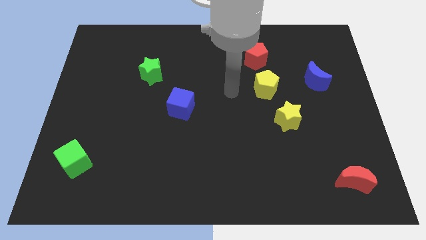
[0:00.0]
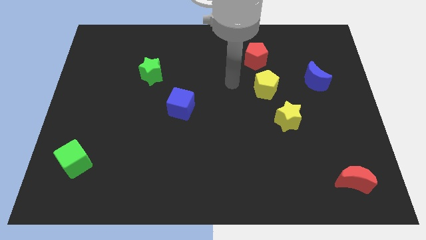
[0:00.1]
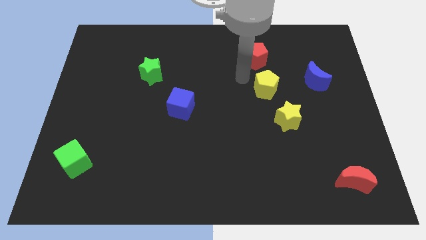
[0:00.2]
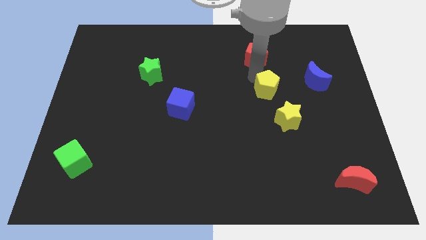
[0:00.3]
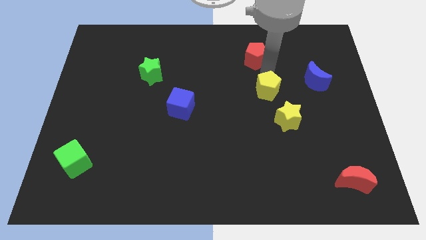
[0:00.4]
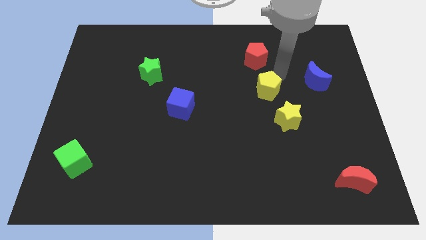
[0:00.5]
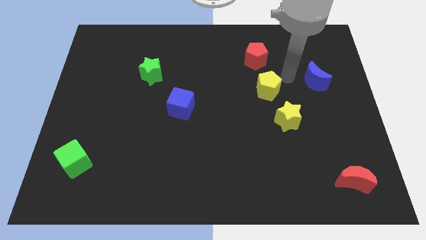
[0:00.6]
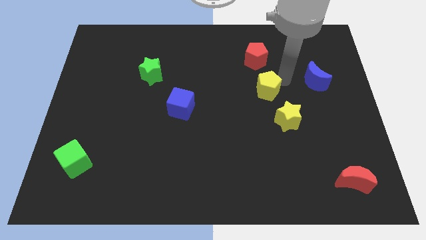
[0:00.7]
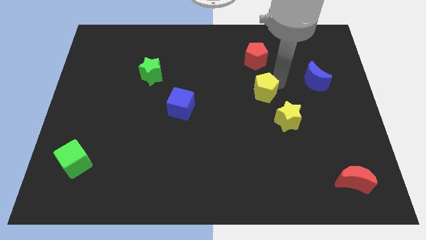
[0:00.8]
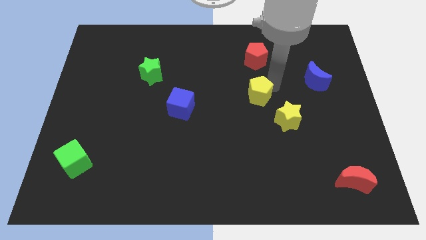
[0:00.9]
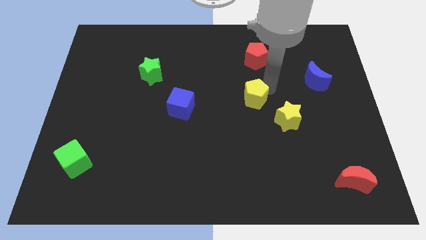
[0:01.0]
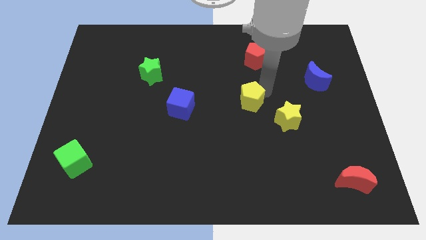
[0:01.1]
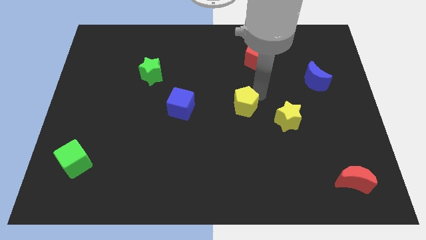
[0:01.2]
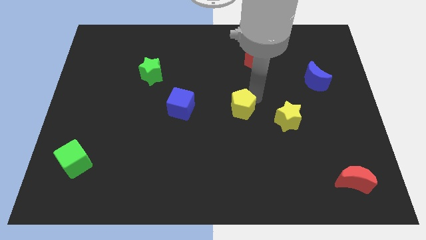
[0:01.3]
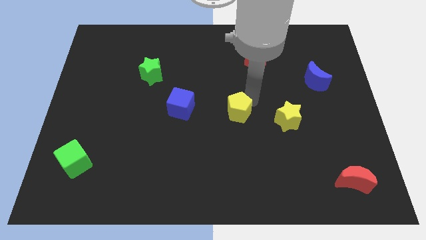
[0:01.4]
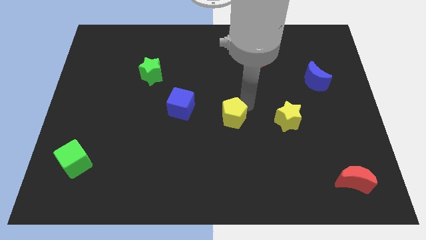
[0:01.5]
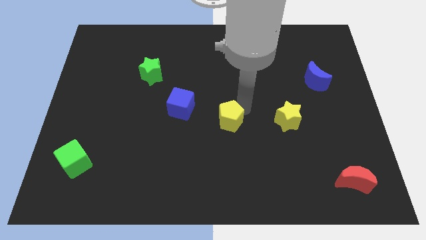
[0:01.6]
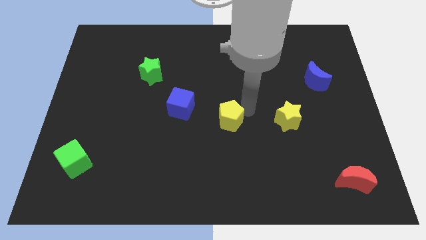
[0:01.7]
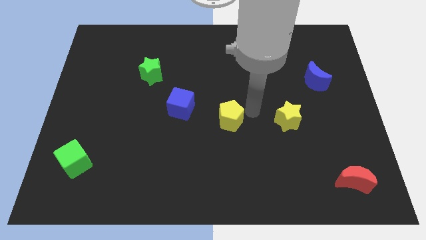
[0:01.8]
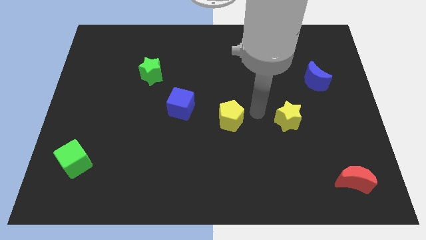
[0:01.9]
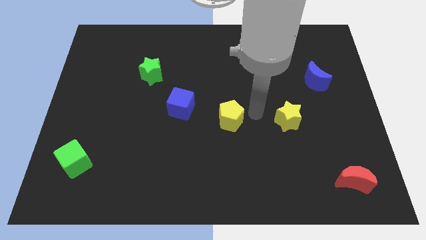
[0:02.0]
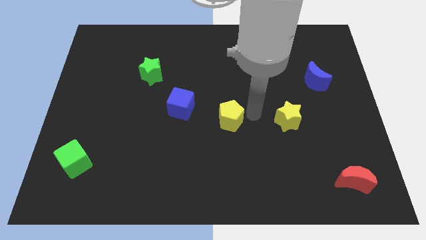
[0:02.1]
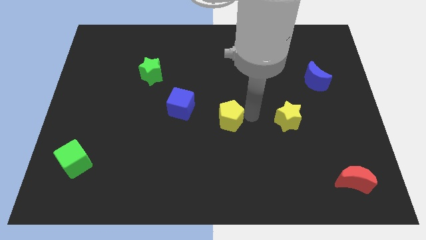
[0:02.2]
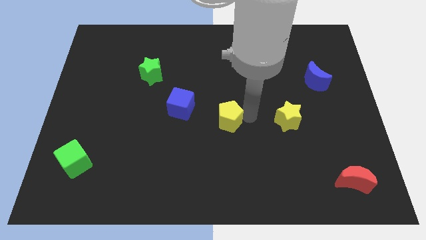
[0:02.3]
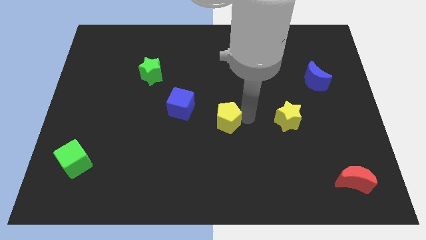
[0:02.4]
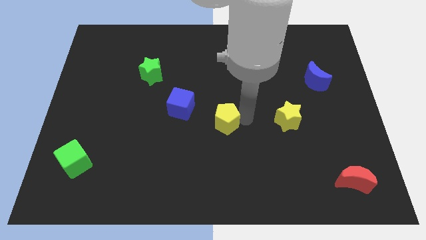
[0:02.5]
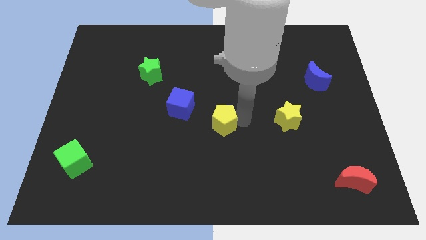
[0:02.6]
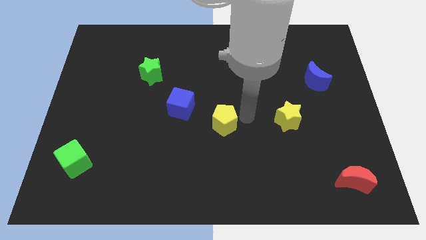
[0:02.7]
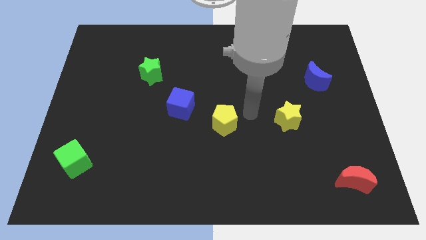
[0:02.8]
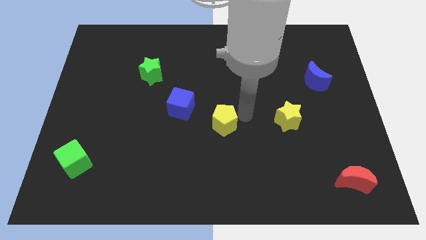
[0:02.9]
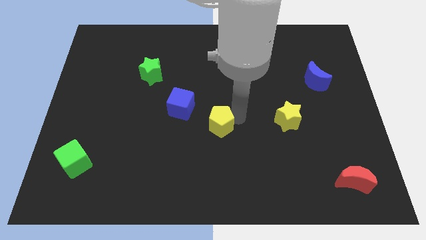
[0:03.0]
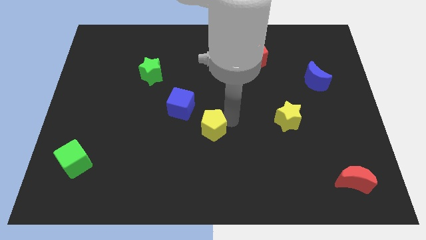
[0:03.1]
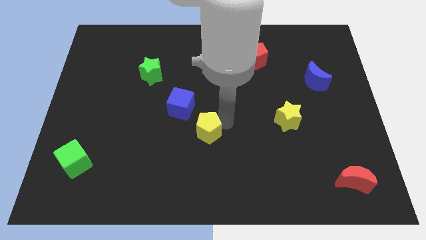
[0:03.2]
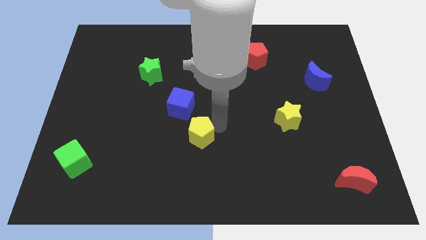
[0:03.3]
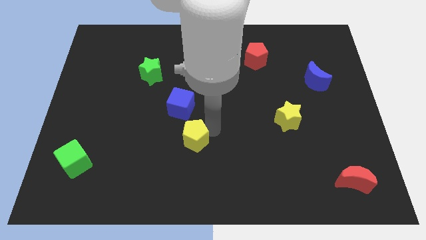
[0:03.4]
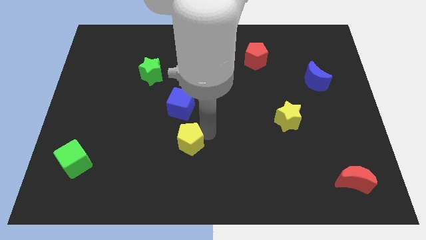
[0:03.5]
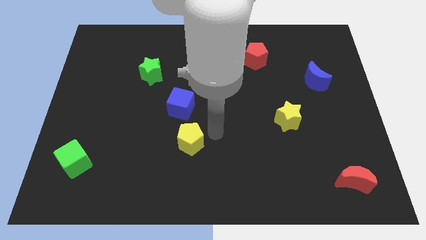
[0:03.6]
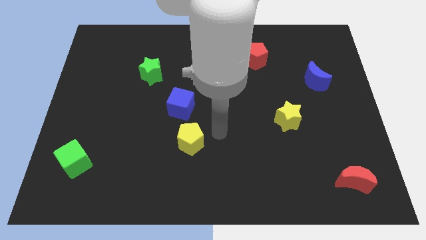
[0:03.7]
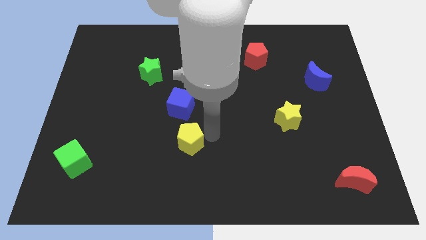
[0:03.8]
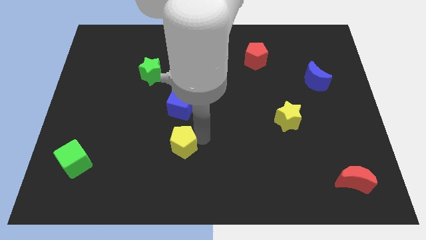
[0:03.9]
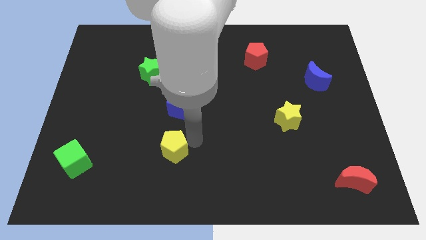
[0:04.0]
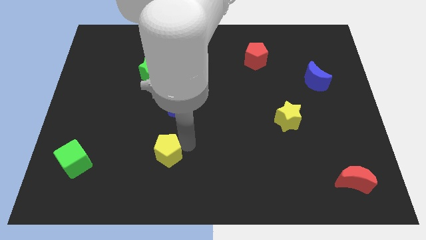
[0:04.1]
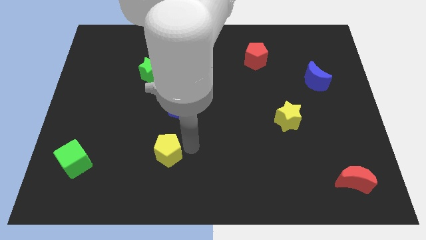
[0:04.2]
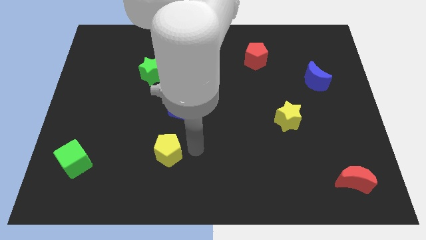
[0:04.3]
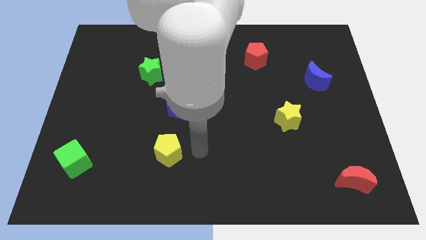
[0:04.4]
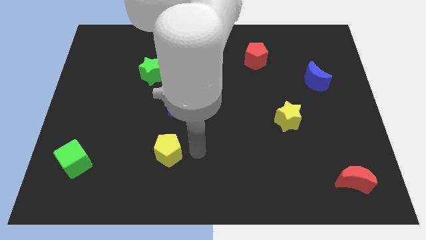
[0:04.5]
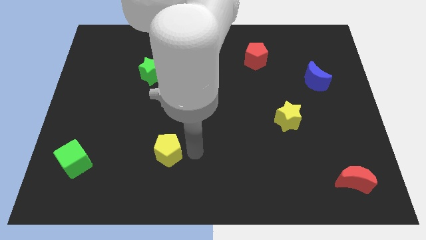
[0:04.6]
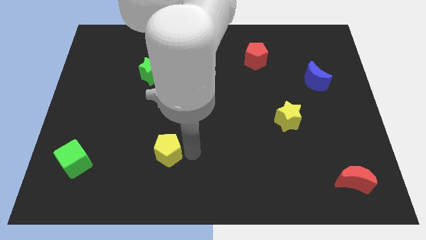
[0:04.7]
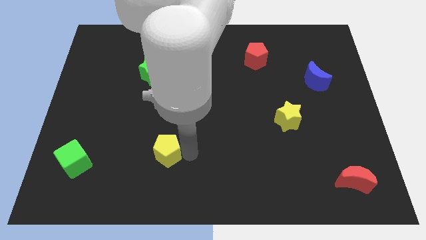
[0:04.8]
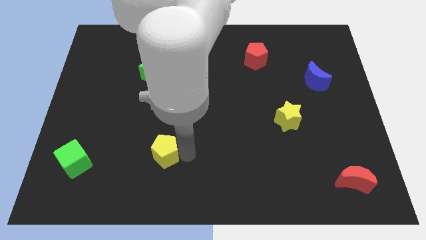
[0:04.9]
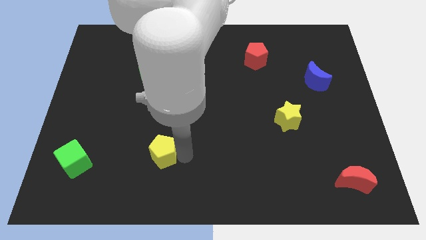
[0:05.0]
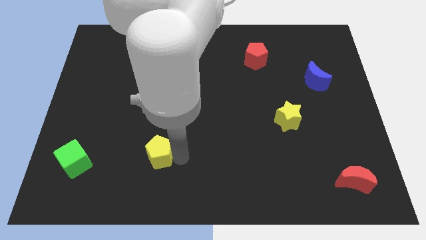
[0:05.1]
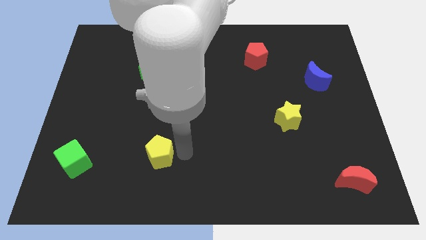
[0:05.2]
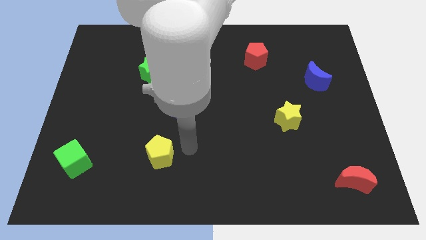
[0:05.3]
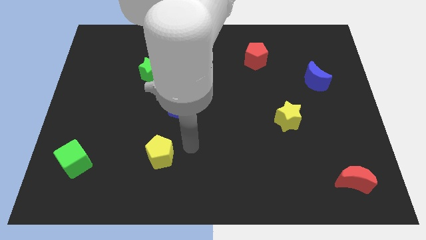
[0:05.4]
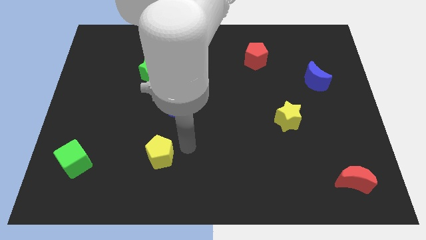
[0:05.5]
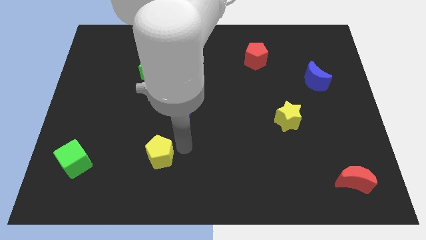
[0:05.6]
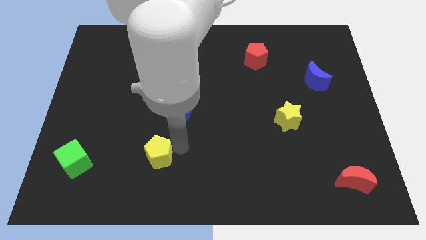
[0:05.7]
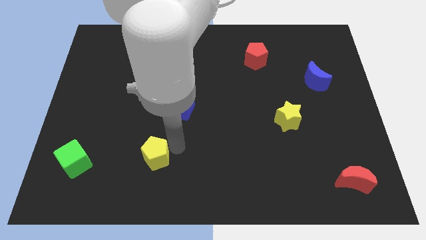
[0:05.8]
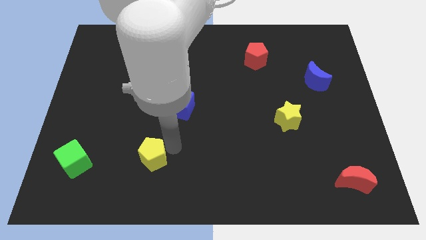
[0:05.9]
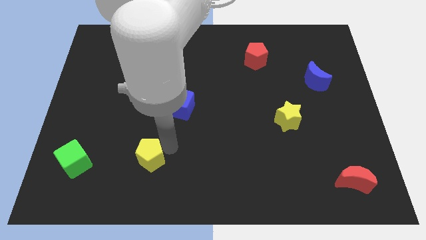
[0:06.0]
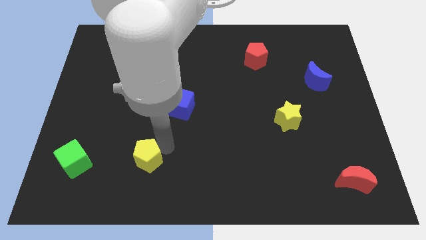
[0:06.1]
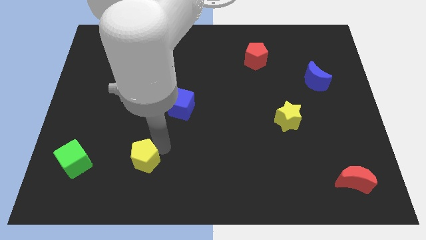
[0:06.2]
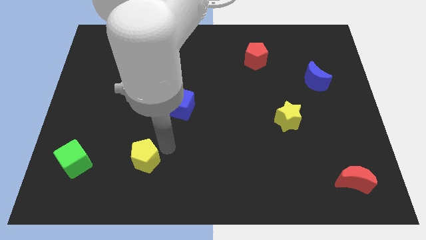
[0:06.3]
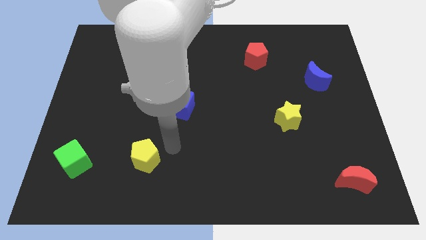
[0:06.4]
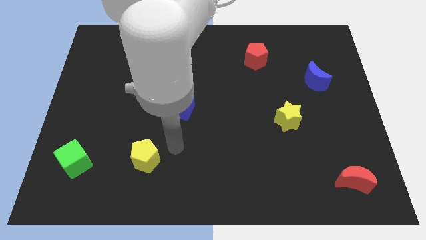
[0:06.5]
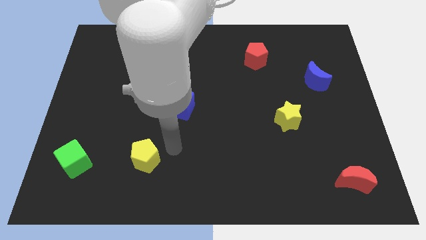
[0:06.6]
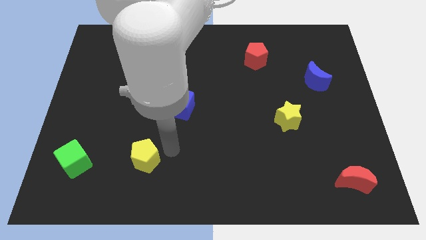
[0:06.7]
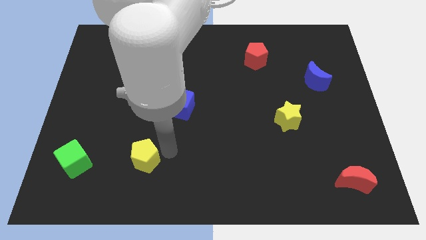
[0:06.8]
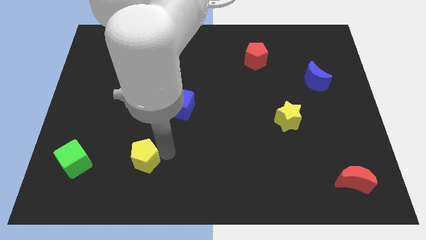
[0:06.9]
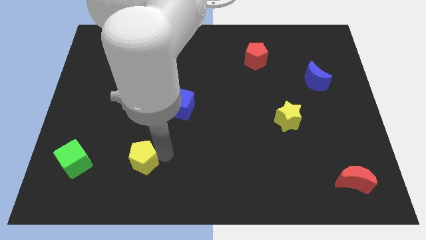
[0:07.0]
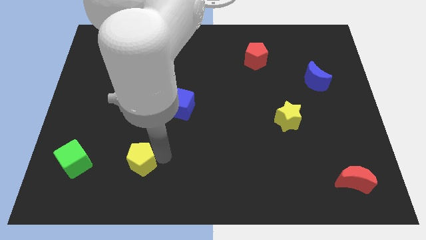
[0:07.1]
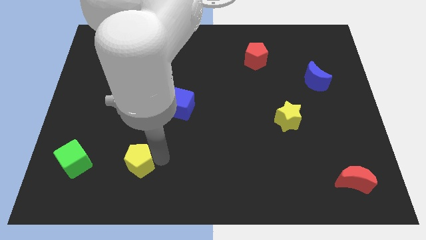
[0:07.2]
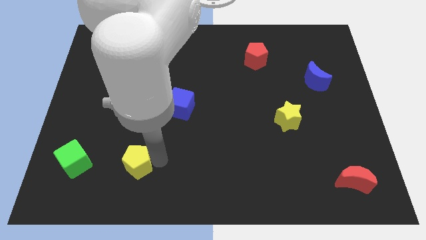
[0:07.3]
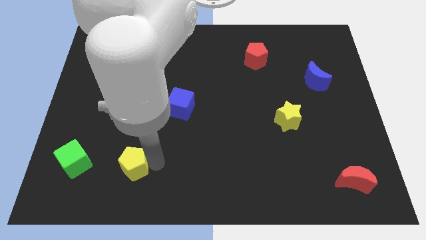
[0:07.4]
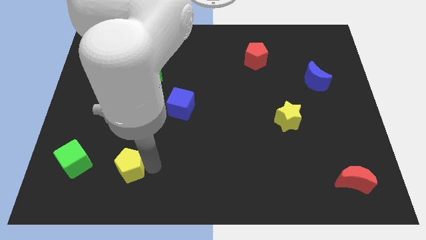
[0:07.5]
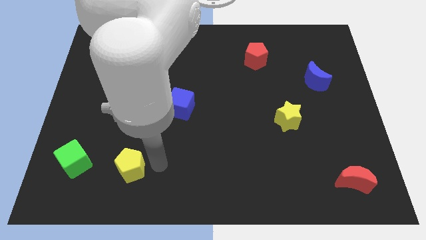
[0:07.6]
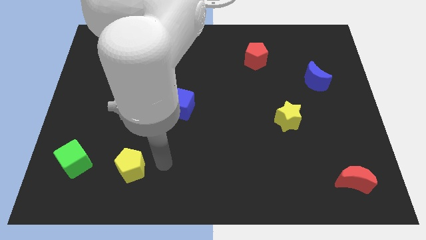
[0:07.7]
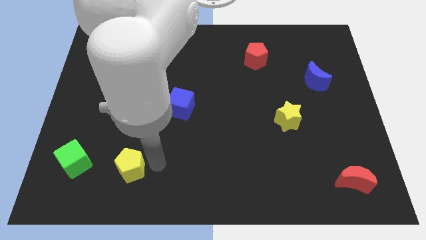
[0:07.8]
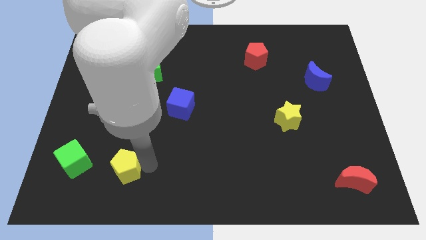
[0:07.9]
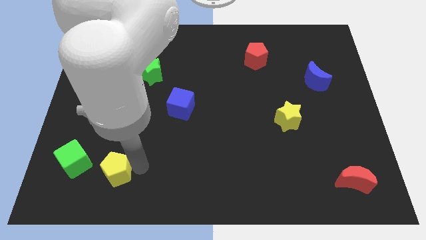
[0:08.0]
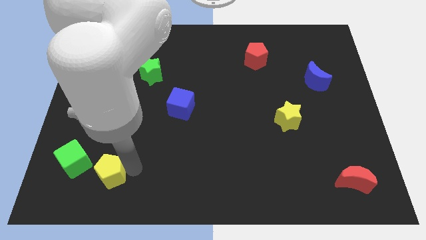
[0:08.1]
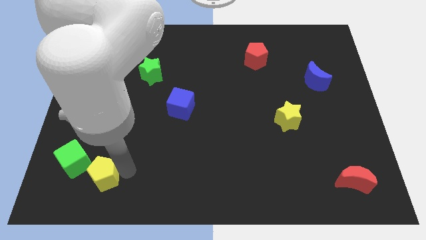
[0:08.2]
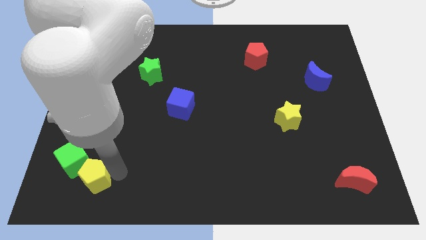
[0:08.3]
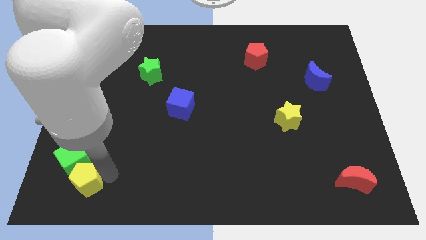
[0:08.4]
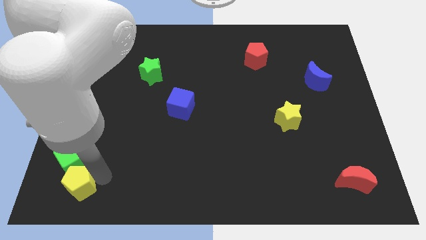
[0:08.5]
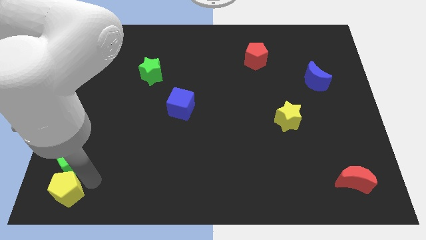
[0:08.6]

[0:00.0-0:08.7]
push the yellow pentagon to the bottom left of the board
